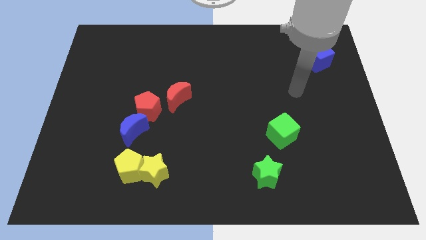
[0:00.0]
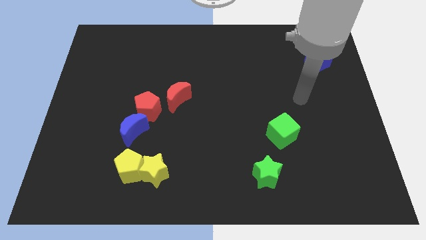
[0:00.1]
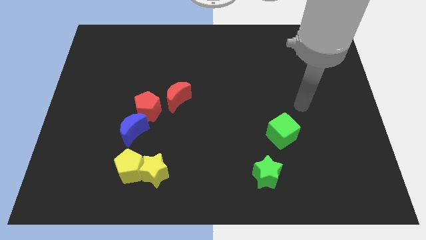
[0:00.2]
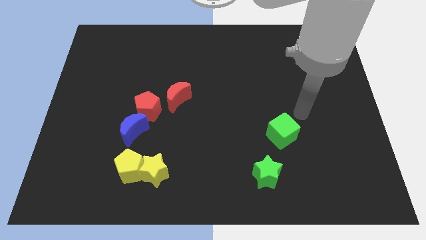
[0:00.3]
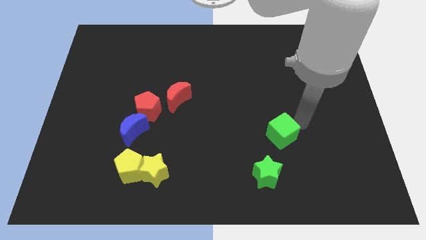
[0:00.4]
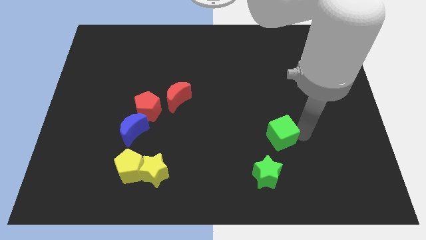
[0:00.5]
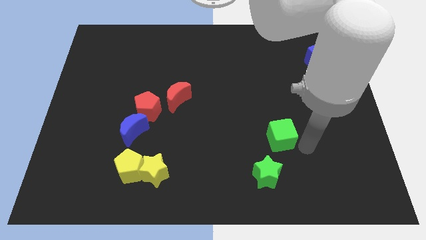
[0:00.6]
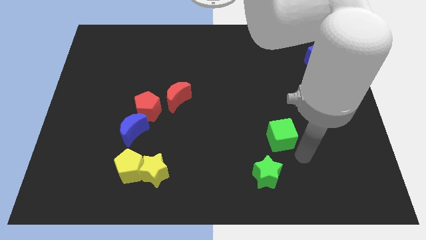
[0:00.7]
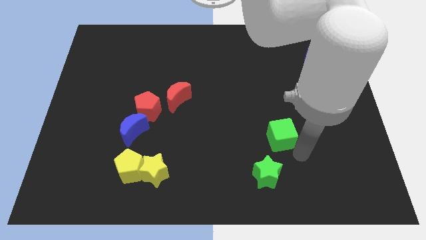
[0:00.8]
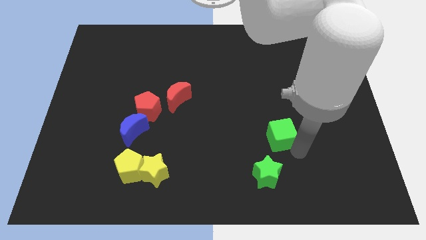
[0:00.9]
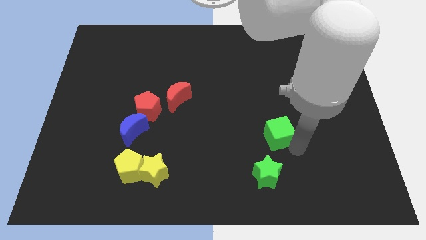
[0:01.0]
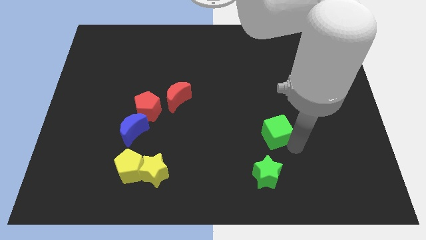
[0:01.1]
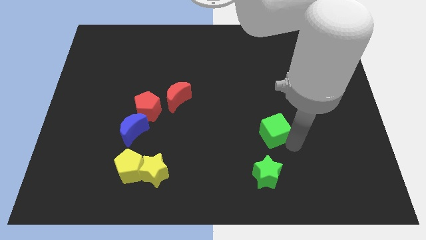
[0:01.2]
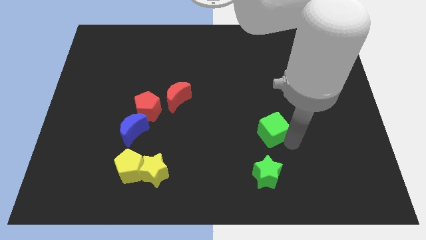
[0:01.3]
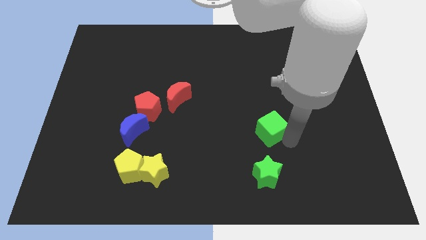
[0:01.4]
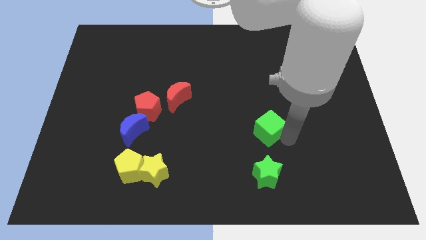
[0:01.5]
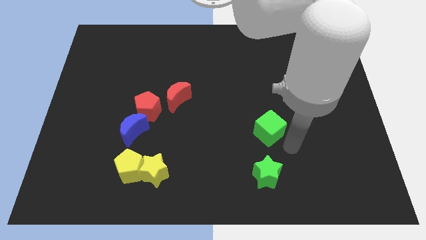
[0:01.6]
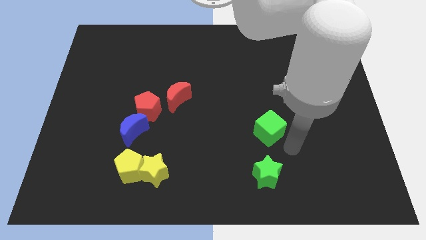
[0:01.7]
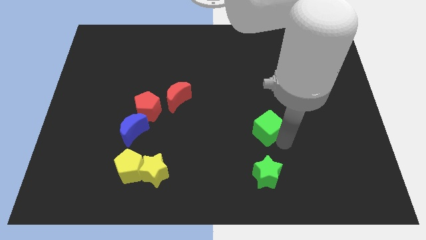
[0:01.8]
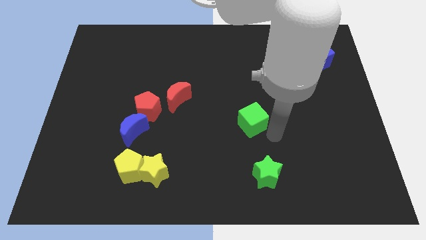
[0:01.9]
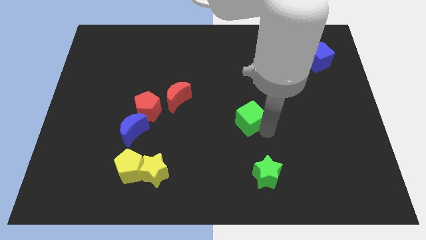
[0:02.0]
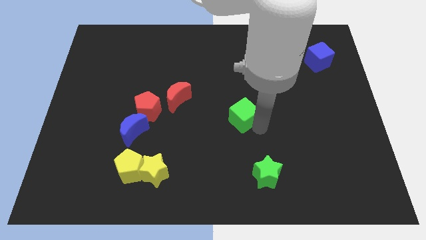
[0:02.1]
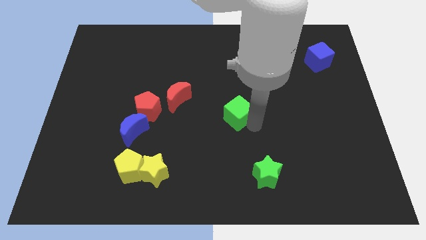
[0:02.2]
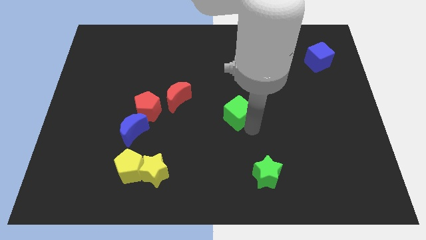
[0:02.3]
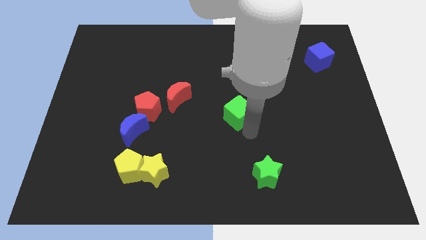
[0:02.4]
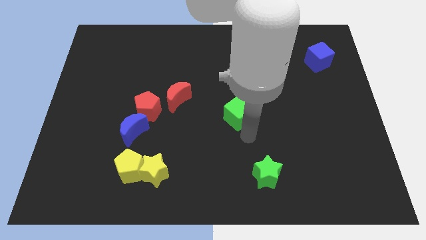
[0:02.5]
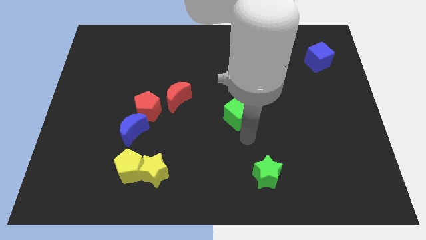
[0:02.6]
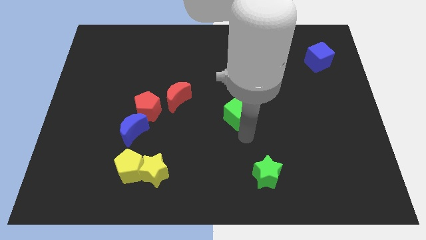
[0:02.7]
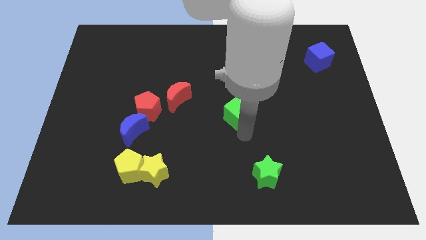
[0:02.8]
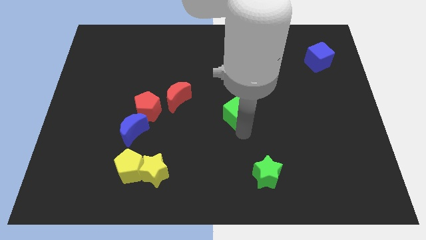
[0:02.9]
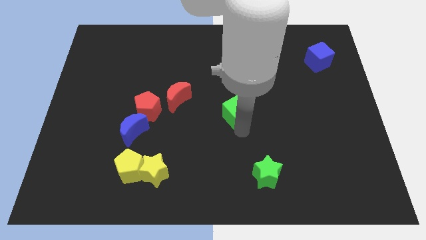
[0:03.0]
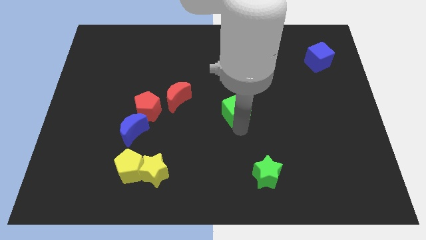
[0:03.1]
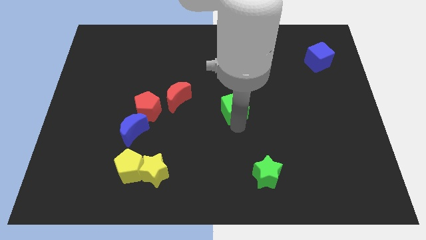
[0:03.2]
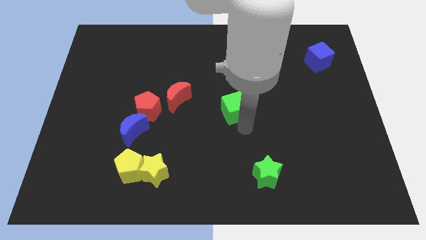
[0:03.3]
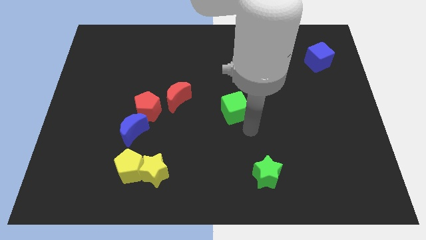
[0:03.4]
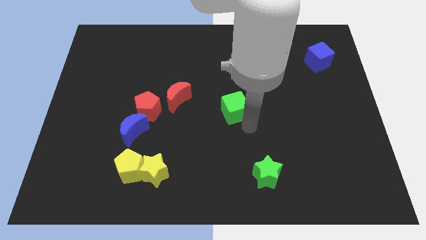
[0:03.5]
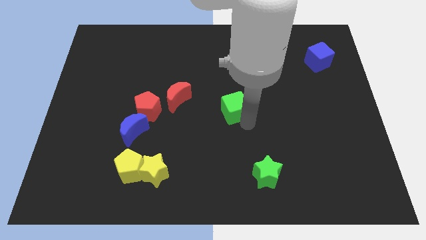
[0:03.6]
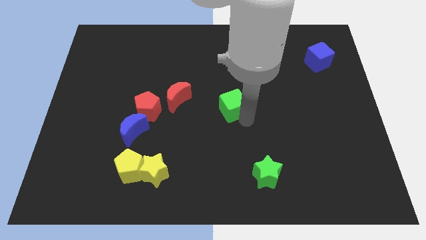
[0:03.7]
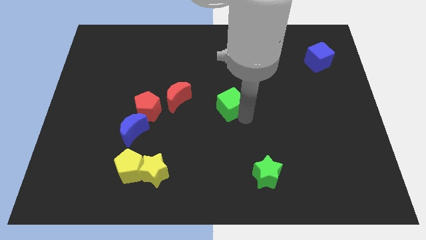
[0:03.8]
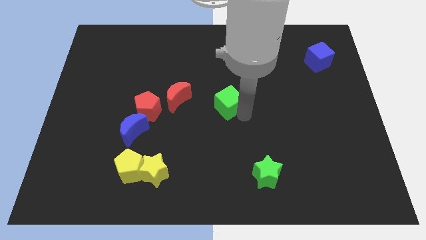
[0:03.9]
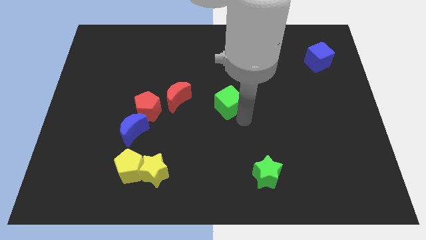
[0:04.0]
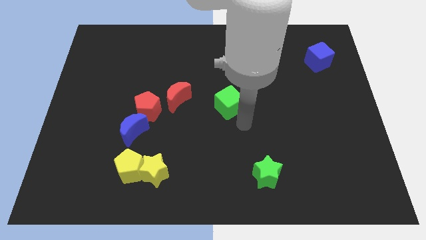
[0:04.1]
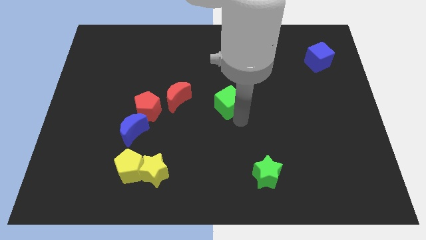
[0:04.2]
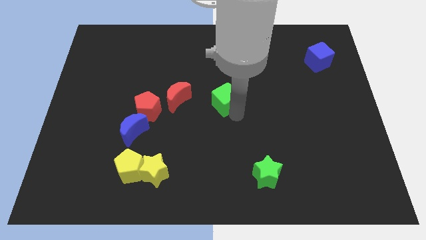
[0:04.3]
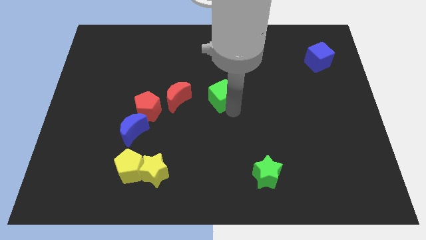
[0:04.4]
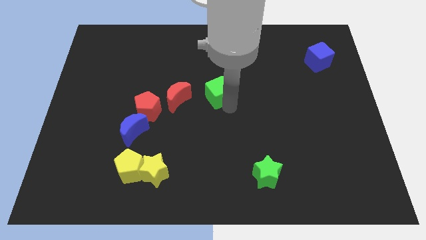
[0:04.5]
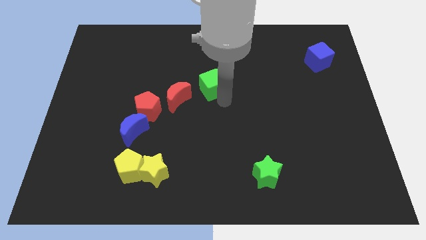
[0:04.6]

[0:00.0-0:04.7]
push the green cube up and then left

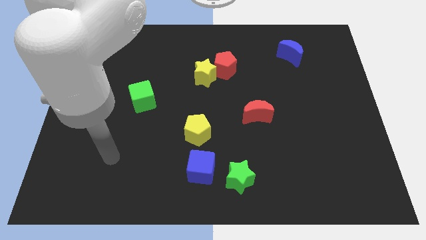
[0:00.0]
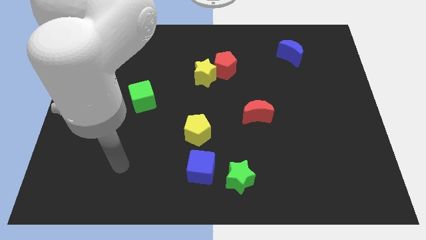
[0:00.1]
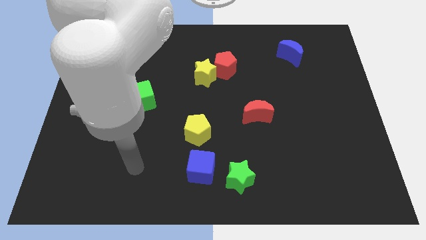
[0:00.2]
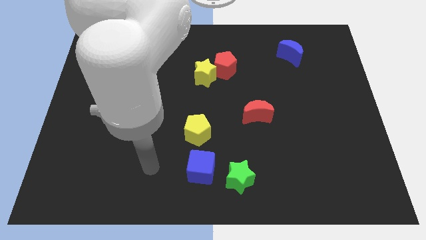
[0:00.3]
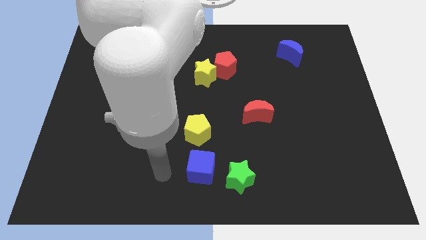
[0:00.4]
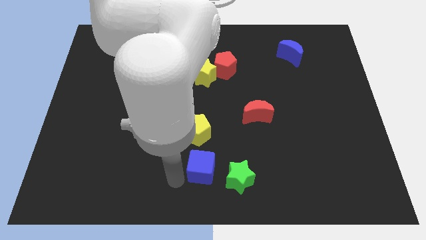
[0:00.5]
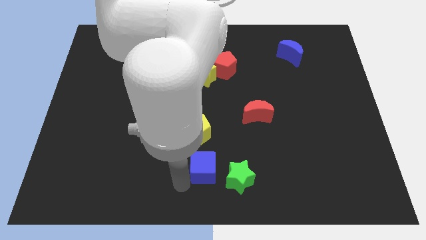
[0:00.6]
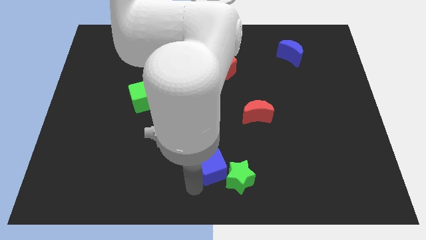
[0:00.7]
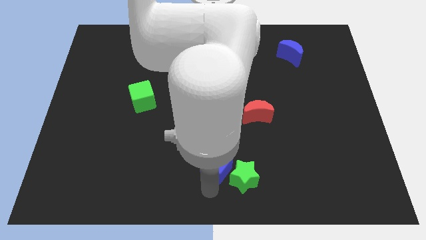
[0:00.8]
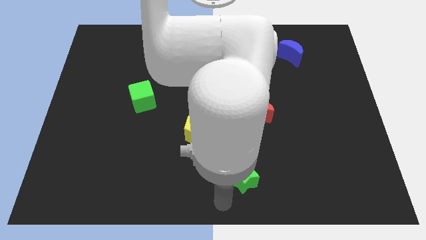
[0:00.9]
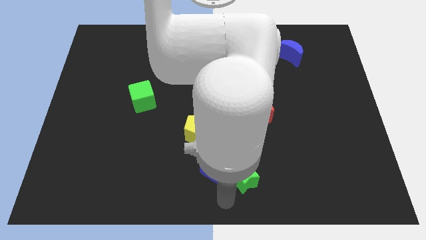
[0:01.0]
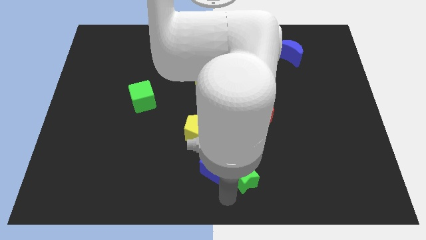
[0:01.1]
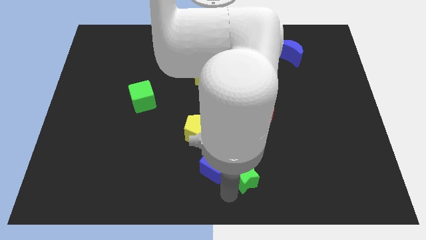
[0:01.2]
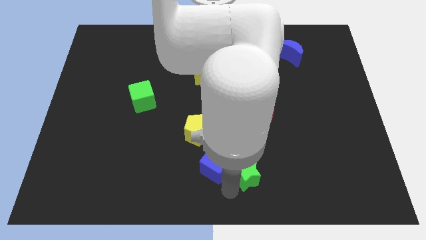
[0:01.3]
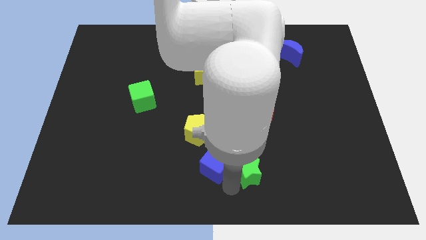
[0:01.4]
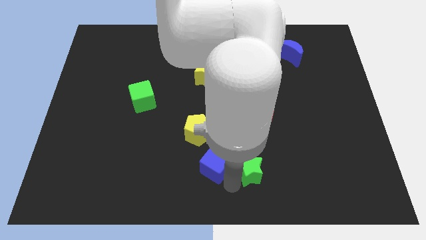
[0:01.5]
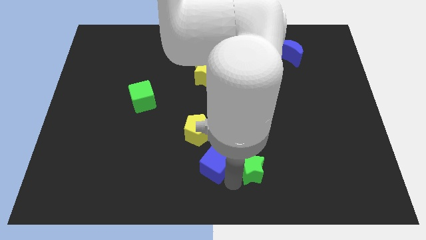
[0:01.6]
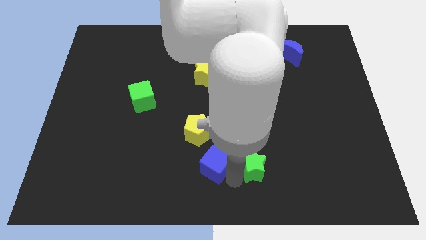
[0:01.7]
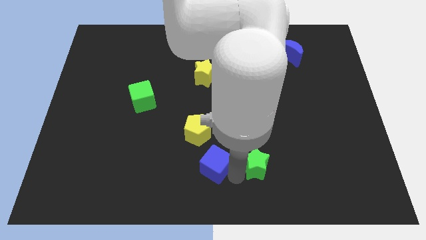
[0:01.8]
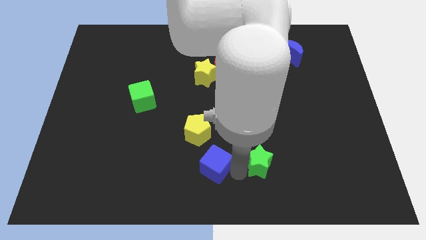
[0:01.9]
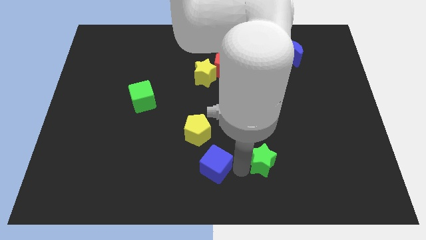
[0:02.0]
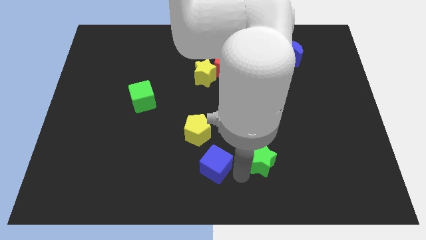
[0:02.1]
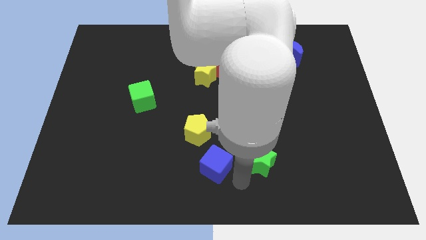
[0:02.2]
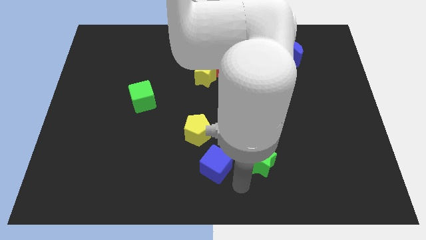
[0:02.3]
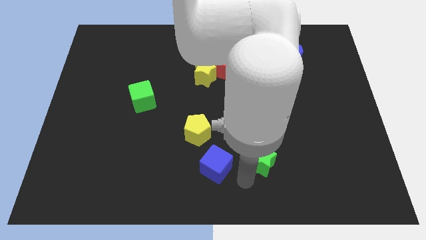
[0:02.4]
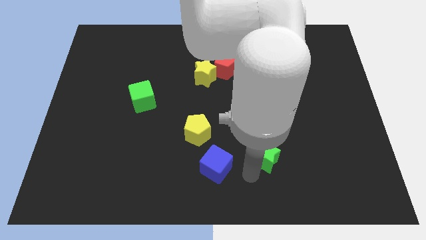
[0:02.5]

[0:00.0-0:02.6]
slightly push the green star upwards and right diagonally

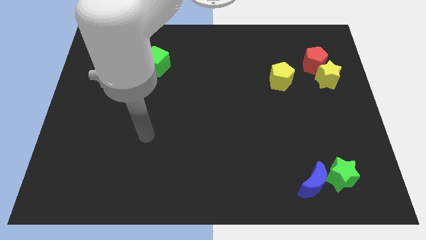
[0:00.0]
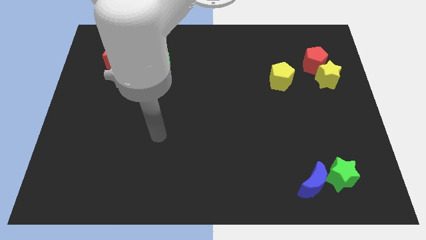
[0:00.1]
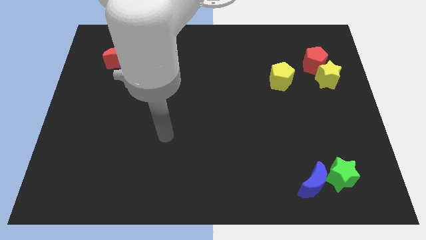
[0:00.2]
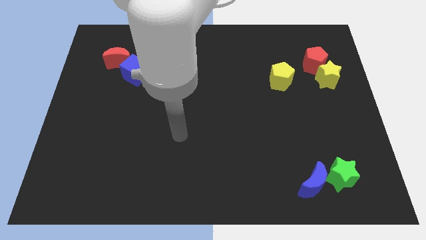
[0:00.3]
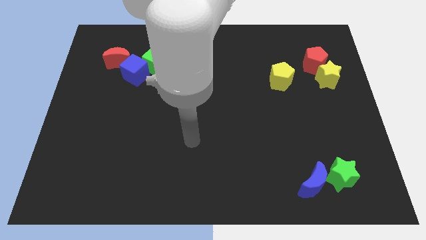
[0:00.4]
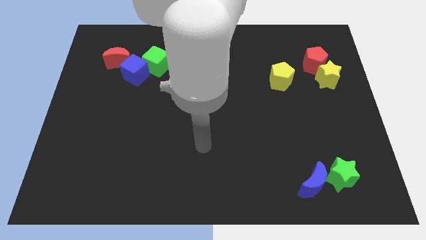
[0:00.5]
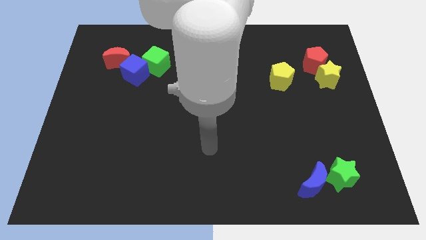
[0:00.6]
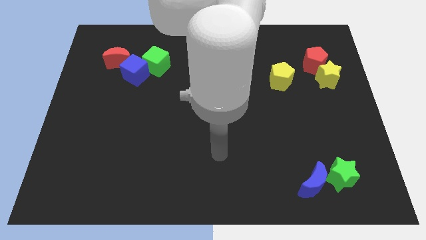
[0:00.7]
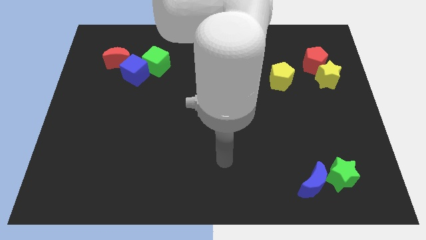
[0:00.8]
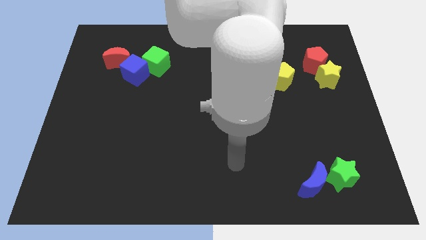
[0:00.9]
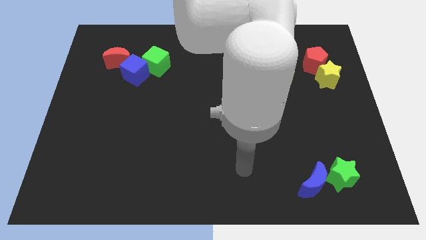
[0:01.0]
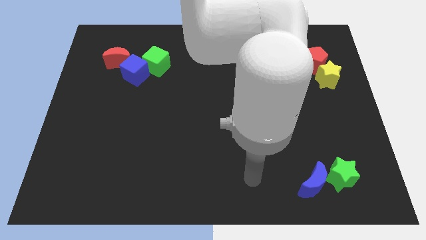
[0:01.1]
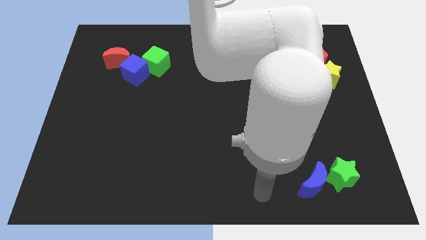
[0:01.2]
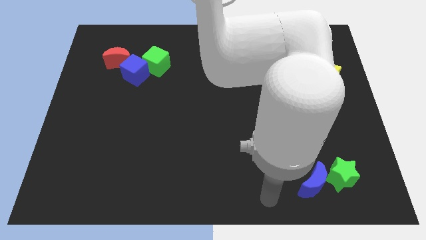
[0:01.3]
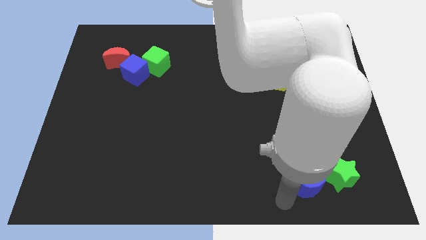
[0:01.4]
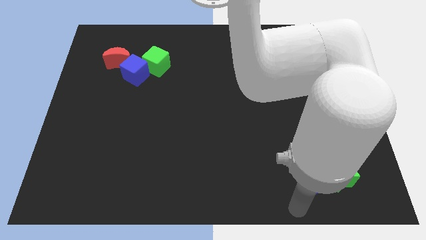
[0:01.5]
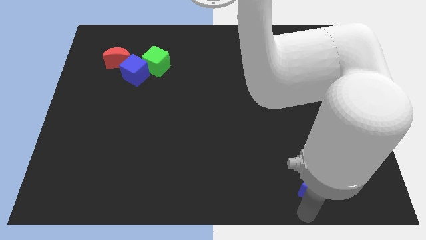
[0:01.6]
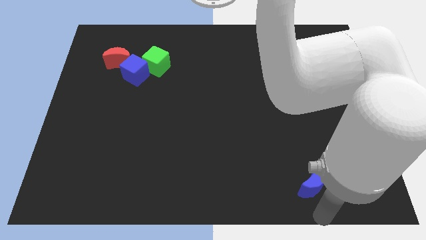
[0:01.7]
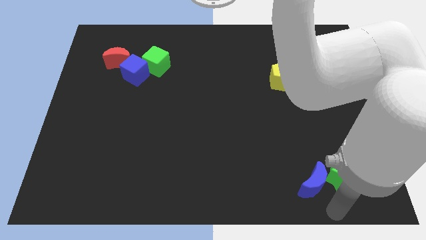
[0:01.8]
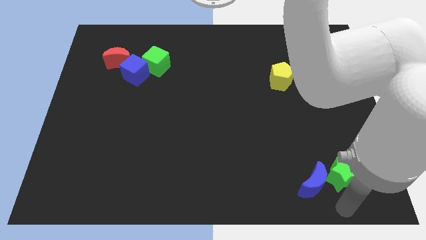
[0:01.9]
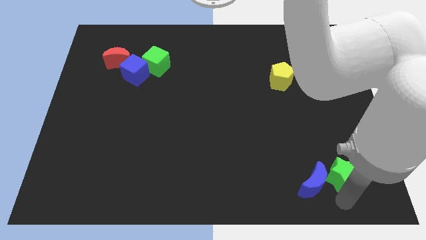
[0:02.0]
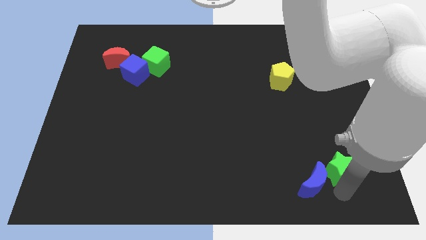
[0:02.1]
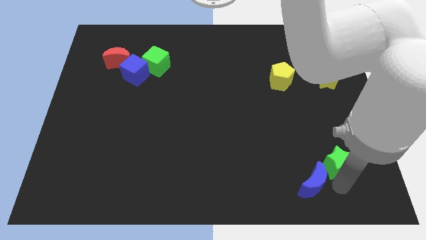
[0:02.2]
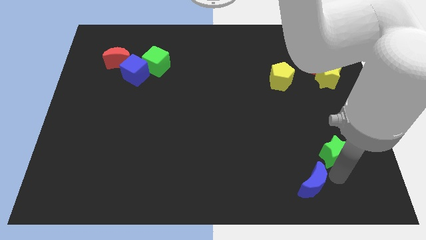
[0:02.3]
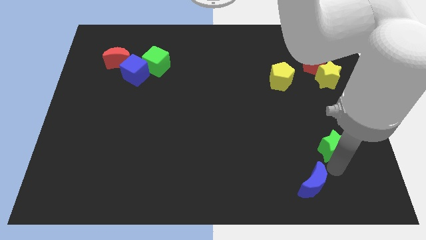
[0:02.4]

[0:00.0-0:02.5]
push the green star somewhat upwards
